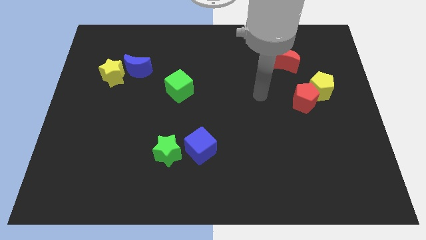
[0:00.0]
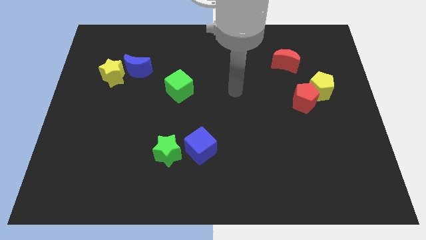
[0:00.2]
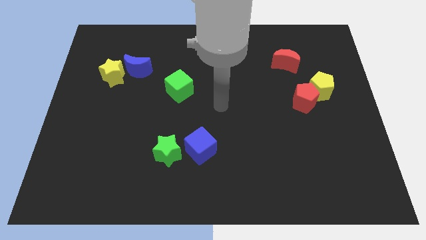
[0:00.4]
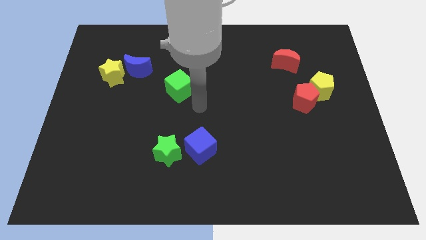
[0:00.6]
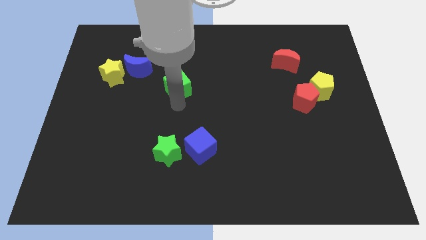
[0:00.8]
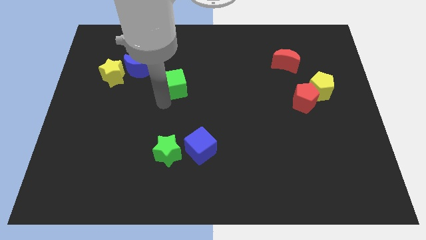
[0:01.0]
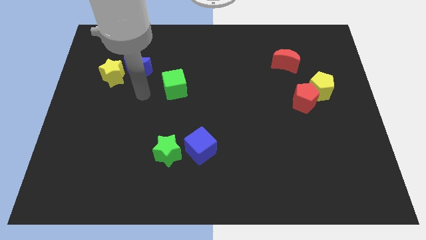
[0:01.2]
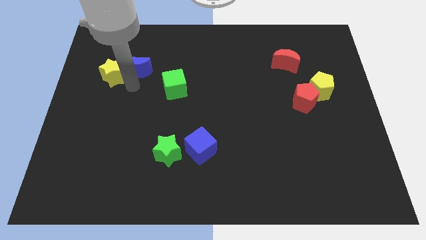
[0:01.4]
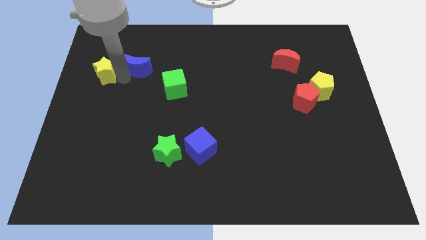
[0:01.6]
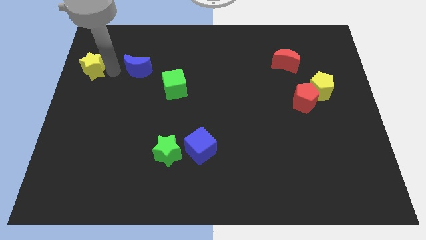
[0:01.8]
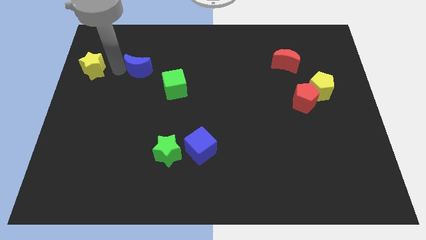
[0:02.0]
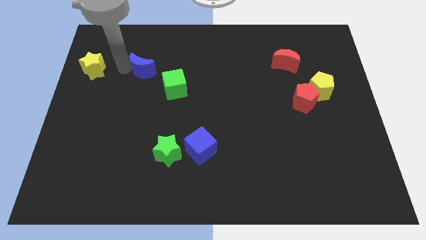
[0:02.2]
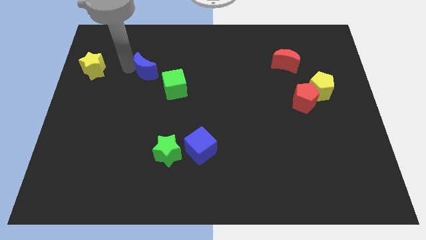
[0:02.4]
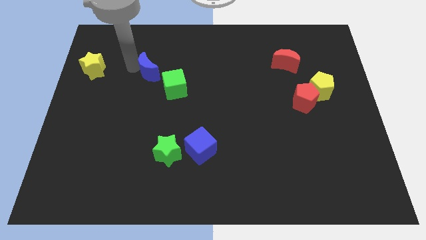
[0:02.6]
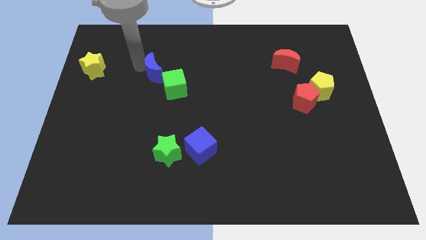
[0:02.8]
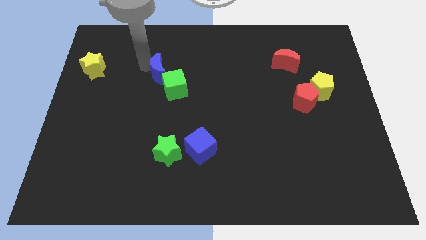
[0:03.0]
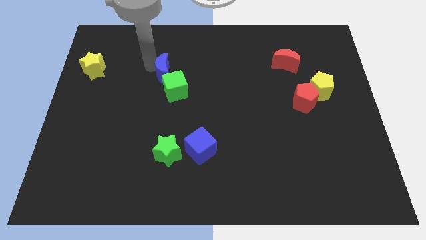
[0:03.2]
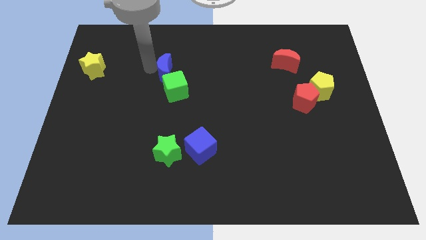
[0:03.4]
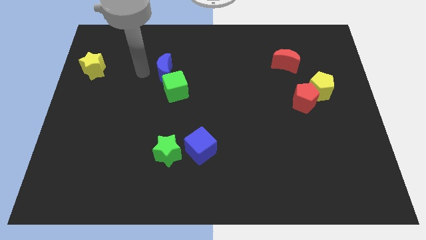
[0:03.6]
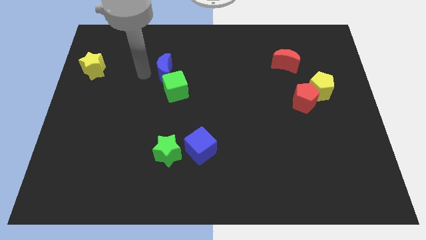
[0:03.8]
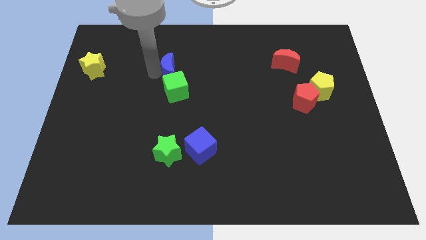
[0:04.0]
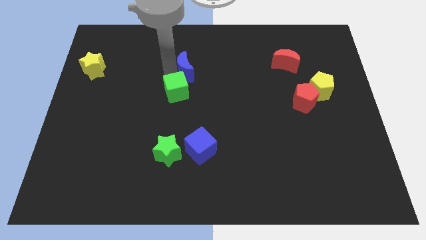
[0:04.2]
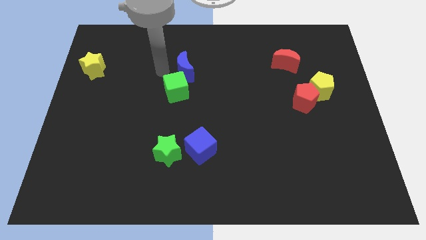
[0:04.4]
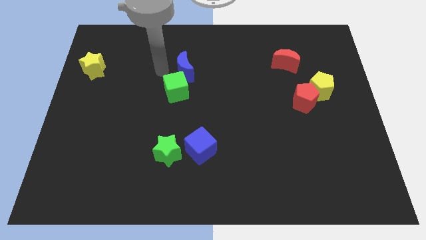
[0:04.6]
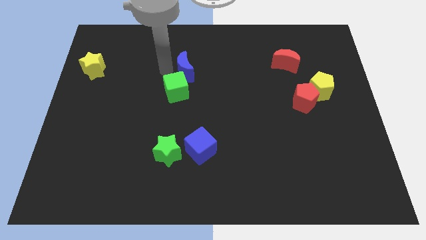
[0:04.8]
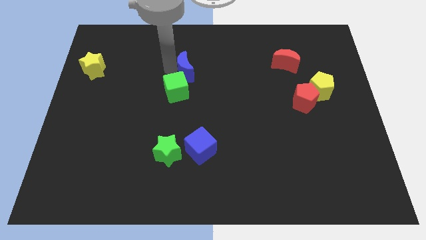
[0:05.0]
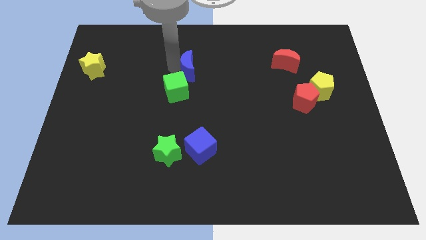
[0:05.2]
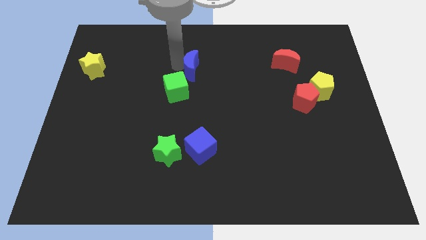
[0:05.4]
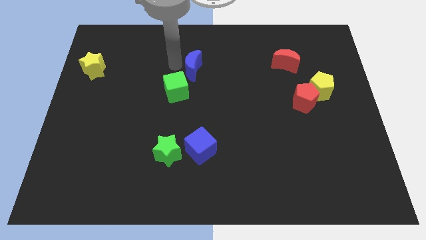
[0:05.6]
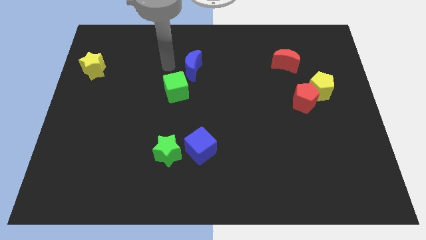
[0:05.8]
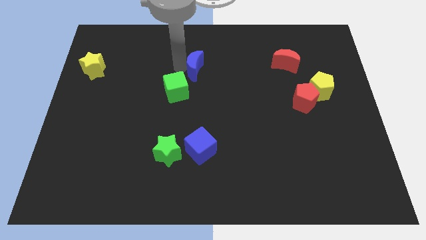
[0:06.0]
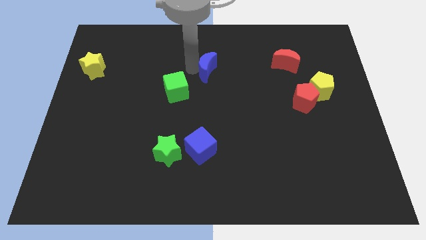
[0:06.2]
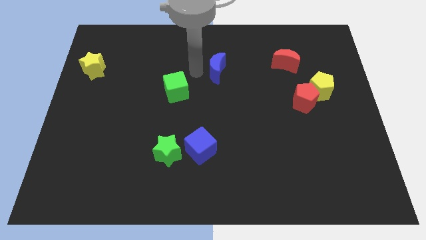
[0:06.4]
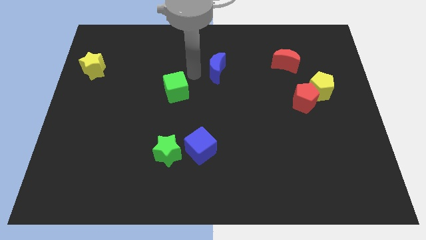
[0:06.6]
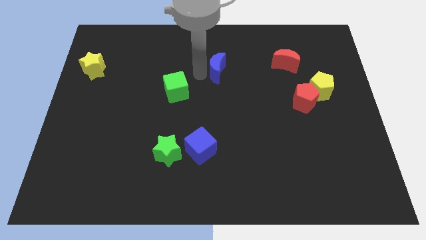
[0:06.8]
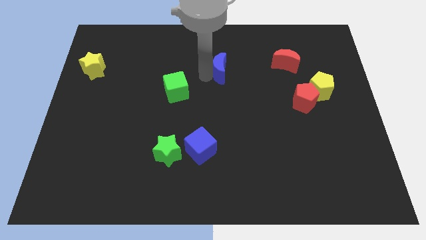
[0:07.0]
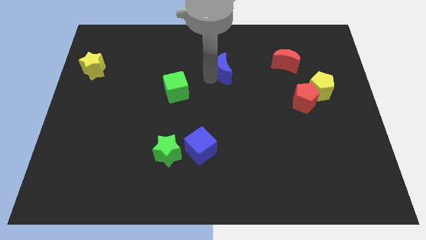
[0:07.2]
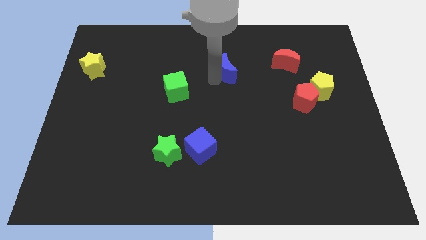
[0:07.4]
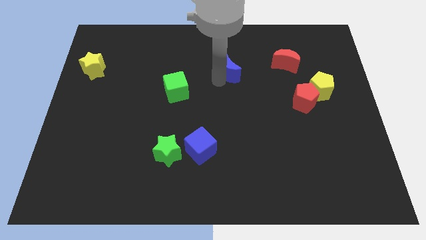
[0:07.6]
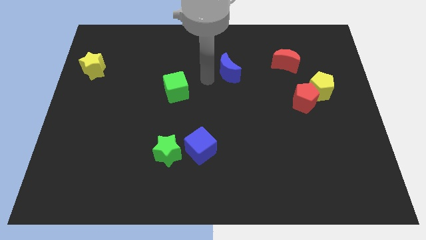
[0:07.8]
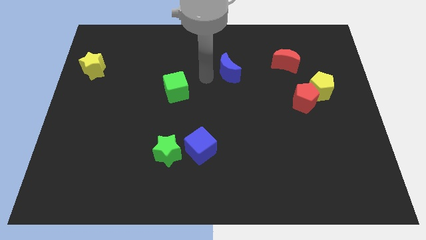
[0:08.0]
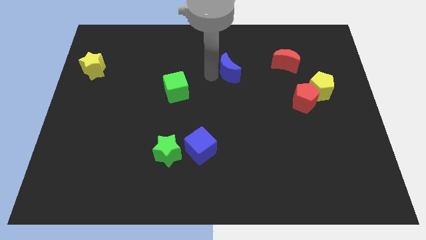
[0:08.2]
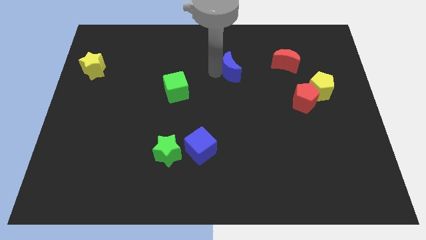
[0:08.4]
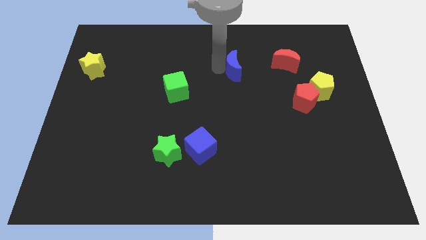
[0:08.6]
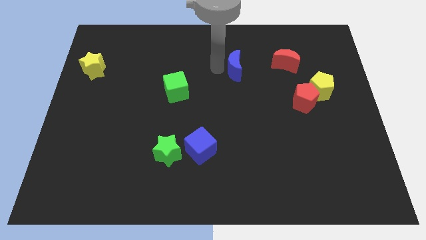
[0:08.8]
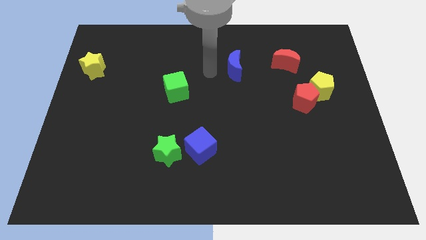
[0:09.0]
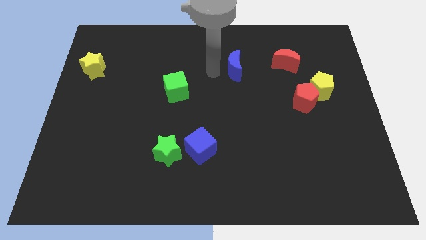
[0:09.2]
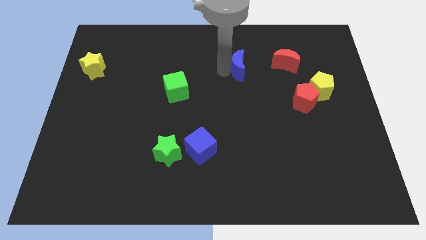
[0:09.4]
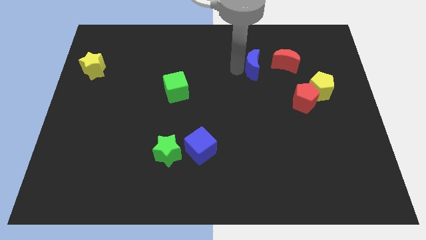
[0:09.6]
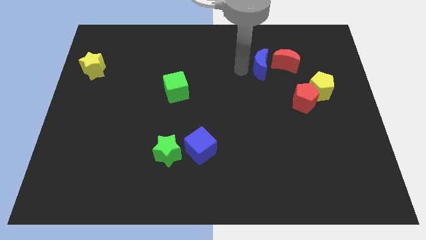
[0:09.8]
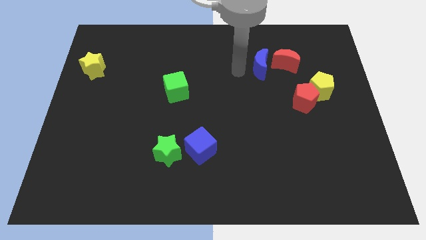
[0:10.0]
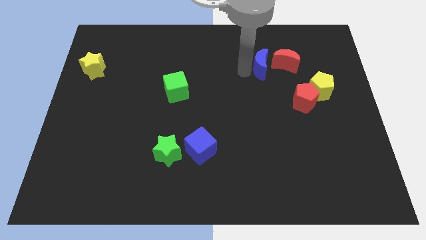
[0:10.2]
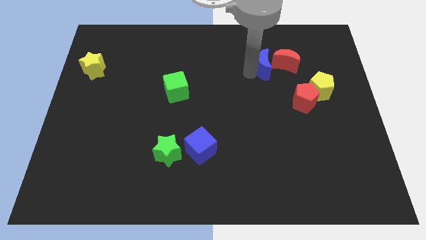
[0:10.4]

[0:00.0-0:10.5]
push the blue moon close to the red moon

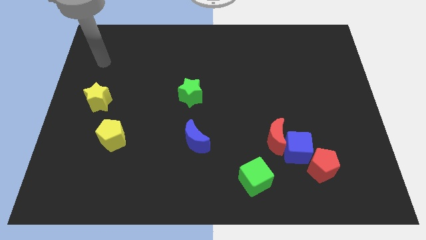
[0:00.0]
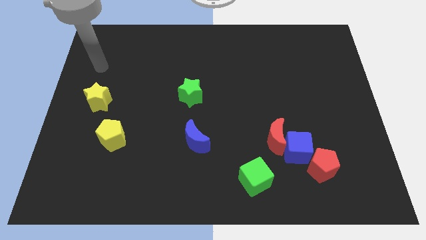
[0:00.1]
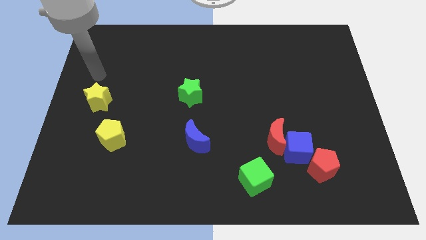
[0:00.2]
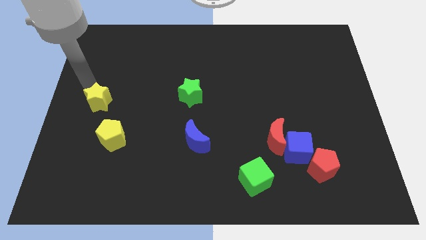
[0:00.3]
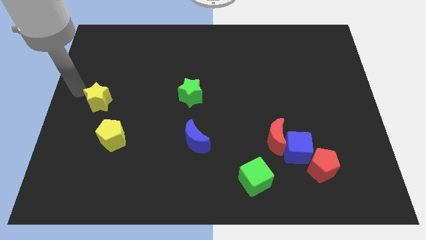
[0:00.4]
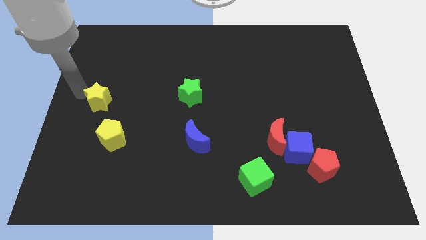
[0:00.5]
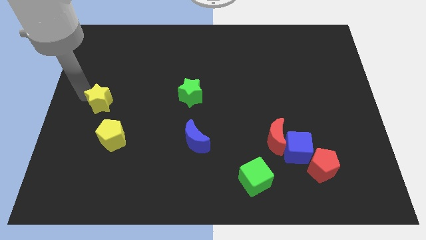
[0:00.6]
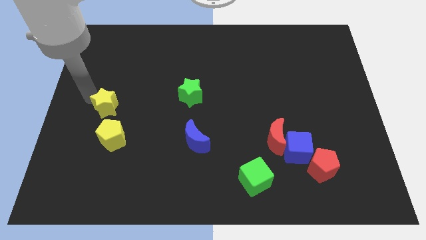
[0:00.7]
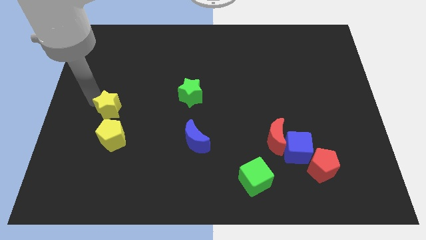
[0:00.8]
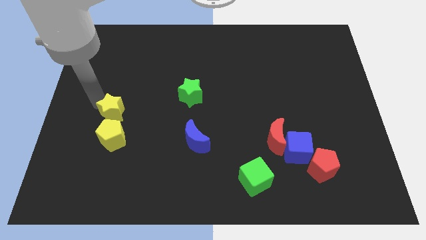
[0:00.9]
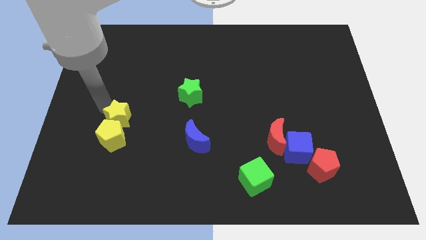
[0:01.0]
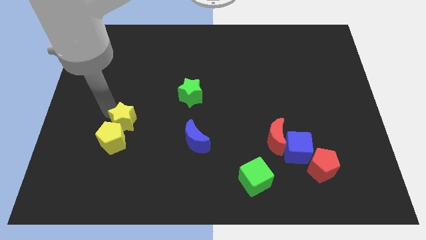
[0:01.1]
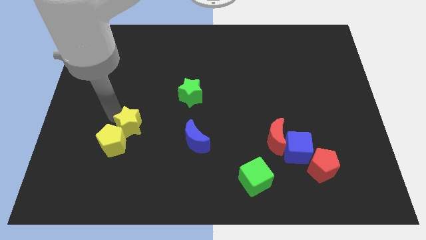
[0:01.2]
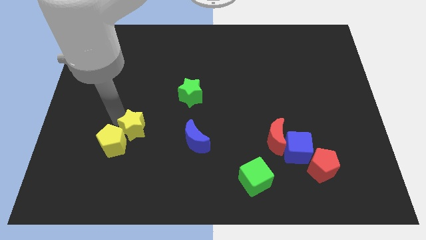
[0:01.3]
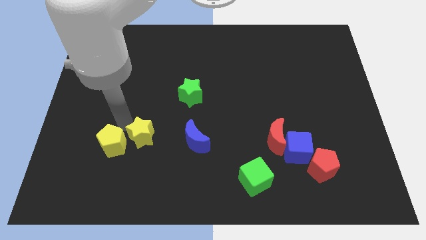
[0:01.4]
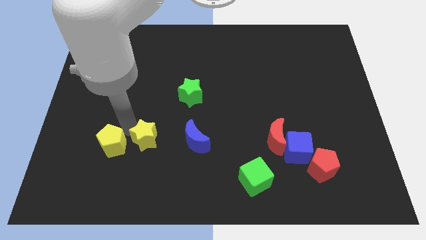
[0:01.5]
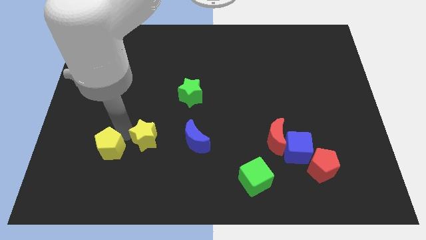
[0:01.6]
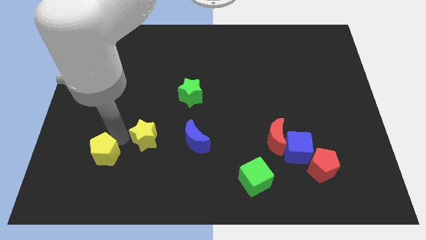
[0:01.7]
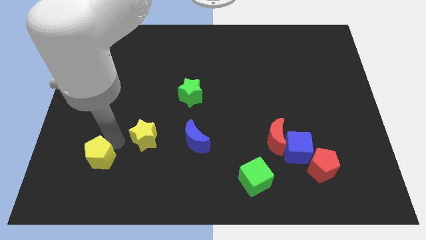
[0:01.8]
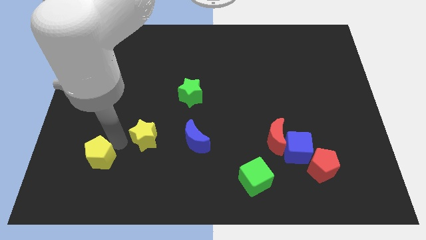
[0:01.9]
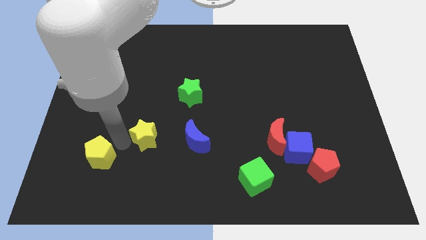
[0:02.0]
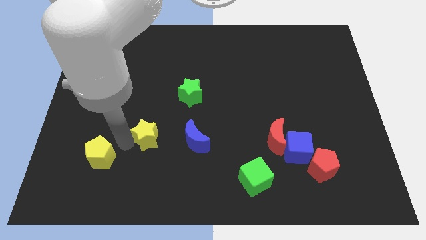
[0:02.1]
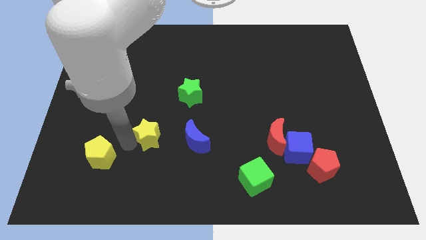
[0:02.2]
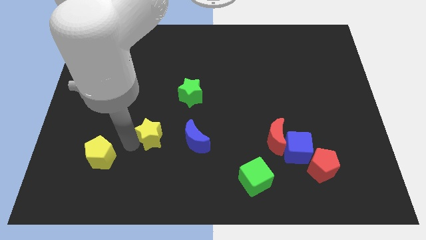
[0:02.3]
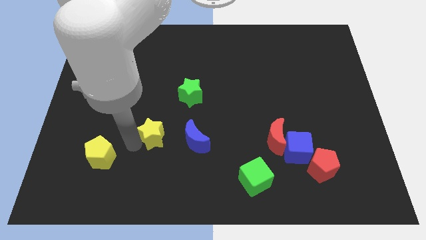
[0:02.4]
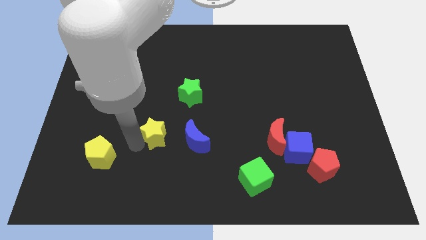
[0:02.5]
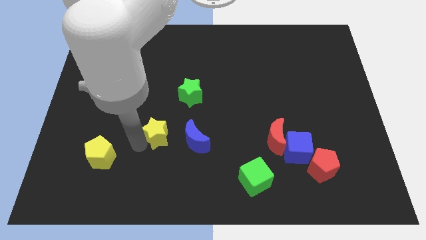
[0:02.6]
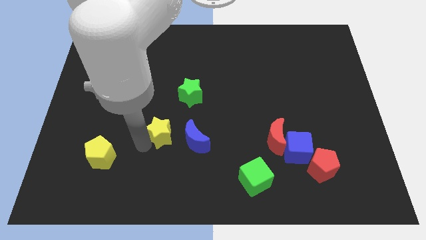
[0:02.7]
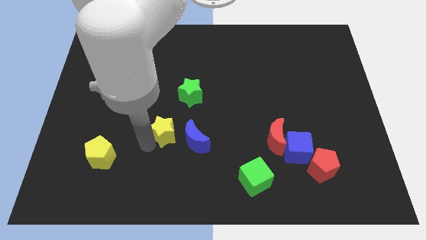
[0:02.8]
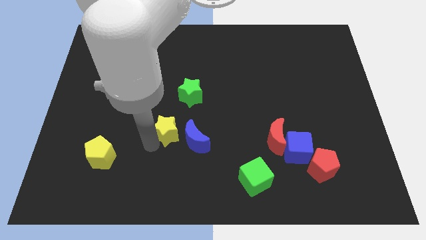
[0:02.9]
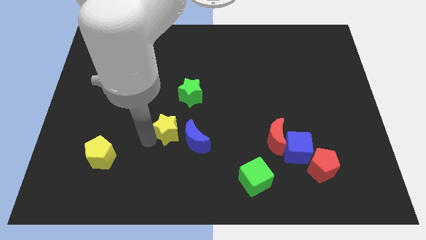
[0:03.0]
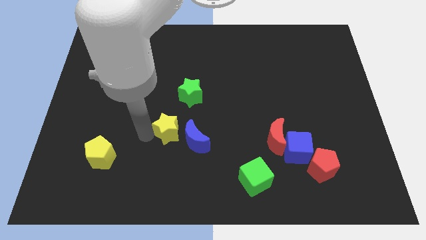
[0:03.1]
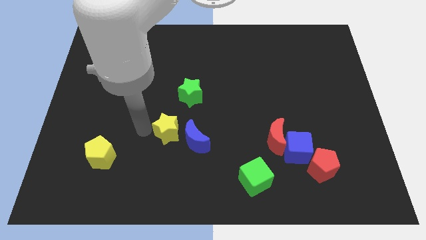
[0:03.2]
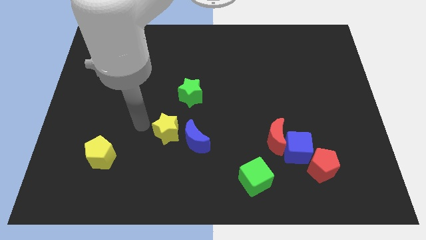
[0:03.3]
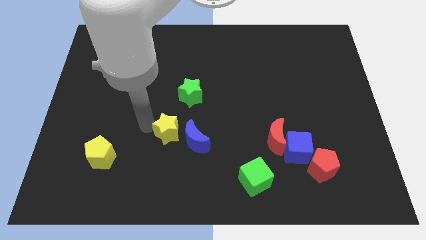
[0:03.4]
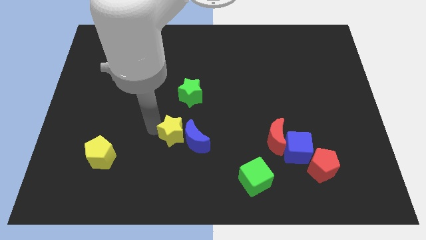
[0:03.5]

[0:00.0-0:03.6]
put the yellow star close to the blue moon
